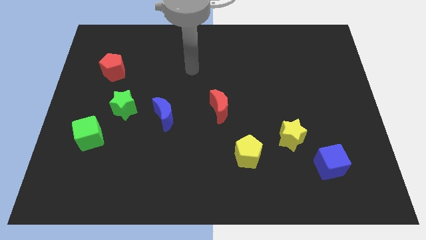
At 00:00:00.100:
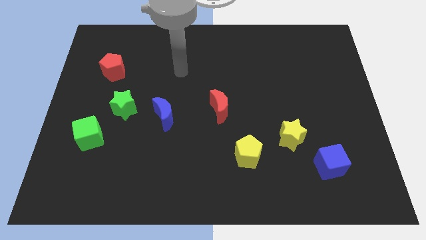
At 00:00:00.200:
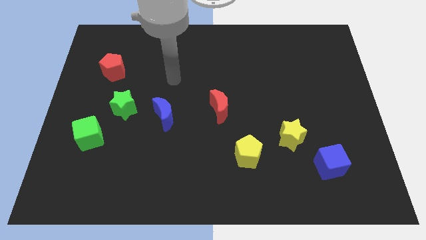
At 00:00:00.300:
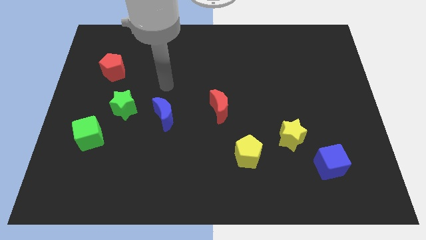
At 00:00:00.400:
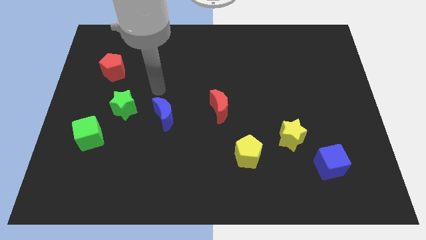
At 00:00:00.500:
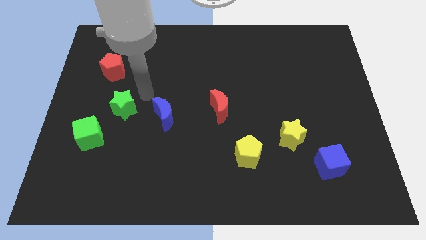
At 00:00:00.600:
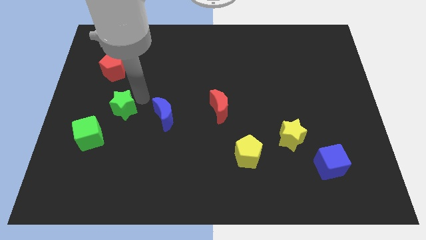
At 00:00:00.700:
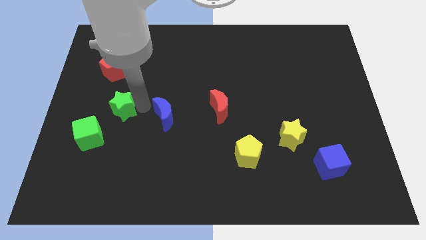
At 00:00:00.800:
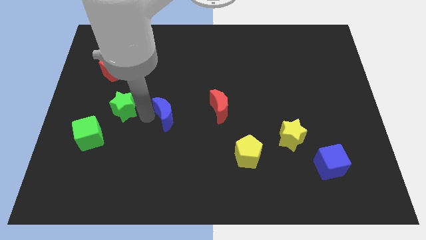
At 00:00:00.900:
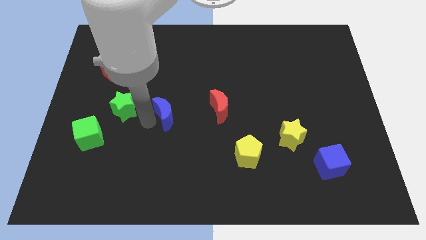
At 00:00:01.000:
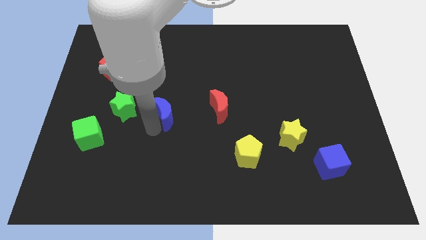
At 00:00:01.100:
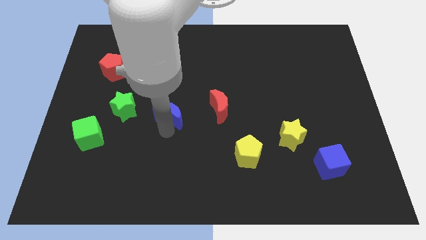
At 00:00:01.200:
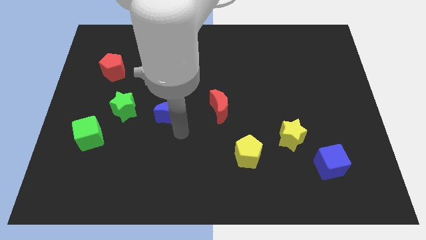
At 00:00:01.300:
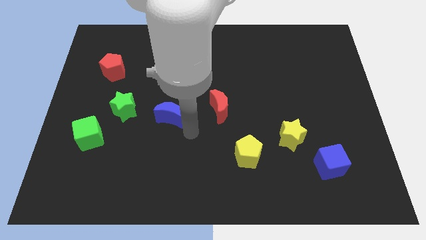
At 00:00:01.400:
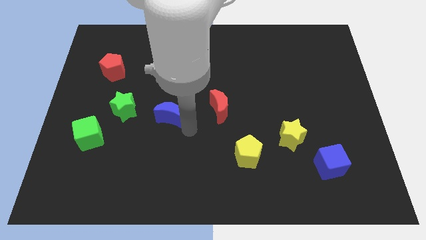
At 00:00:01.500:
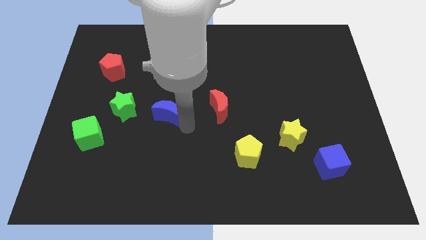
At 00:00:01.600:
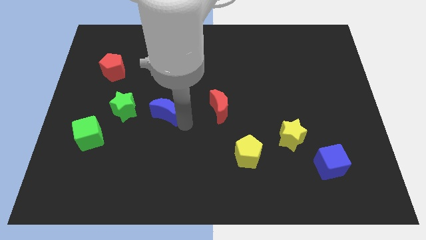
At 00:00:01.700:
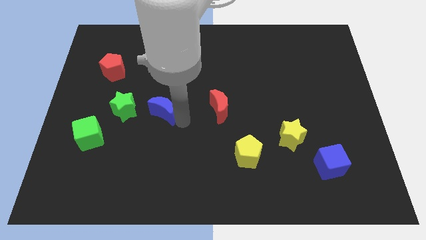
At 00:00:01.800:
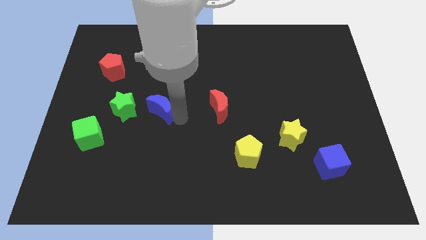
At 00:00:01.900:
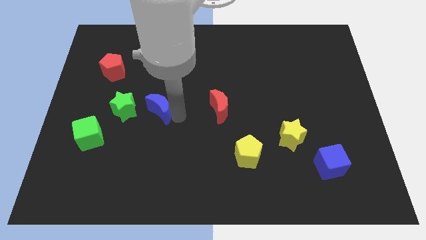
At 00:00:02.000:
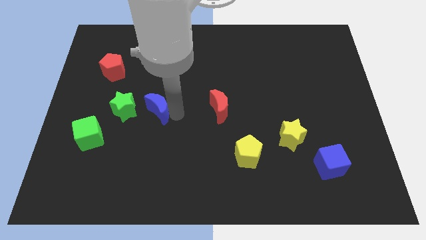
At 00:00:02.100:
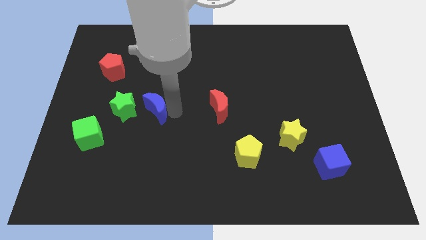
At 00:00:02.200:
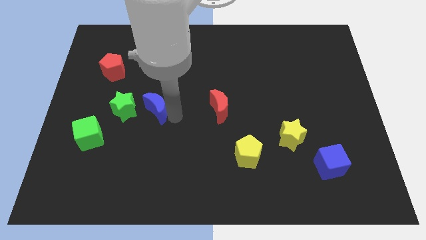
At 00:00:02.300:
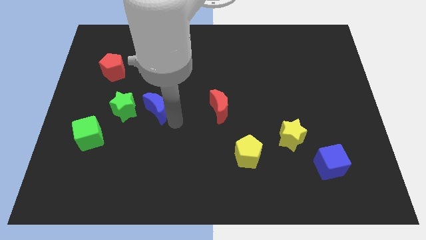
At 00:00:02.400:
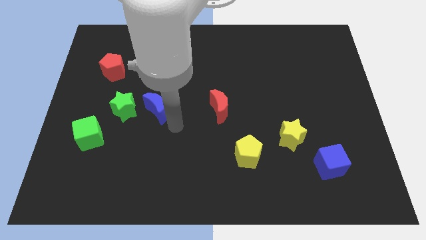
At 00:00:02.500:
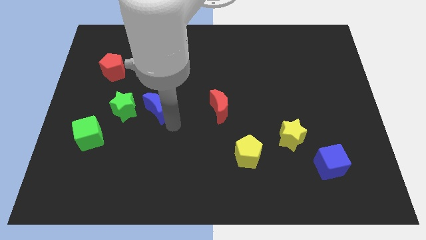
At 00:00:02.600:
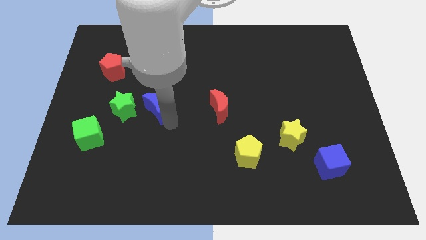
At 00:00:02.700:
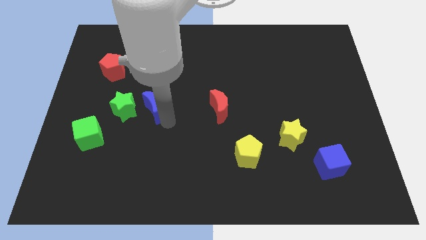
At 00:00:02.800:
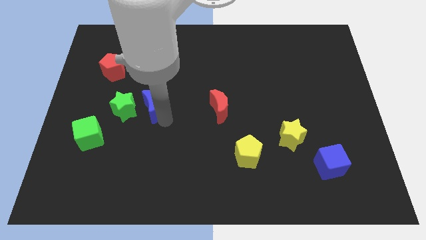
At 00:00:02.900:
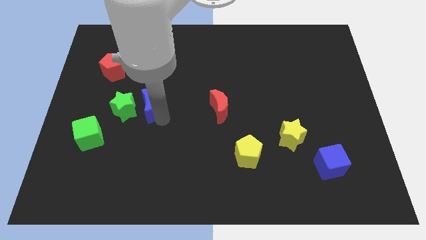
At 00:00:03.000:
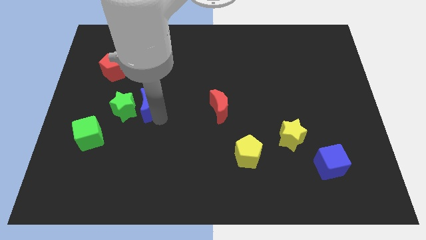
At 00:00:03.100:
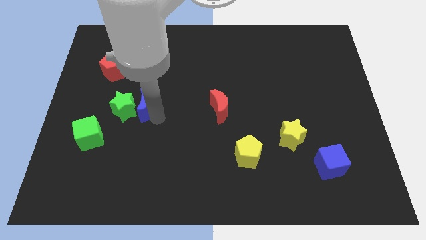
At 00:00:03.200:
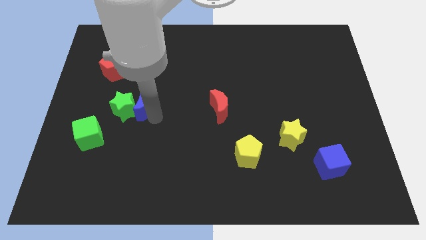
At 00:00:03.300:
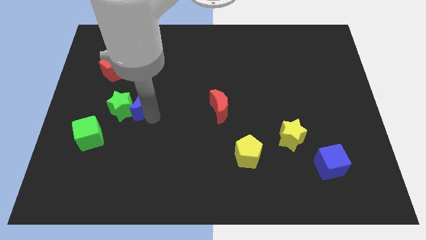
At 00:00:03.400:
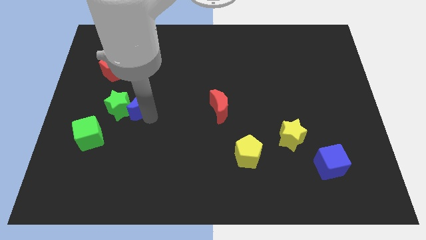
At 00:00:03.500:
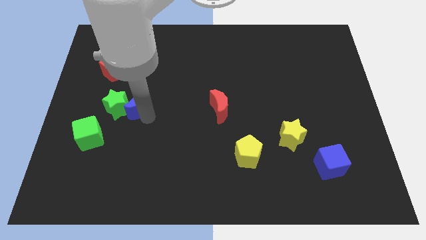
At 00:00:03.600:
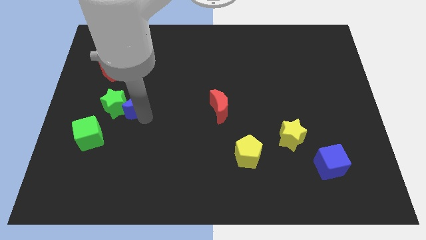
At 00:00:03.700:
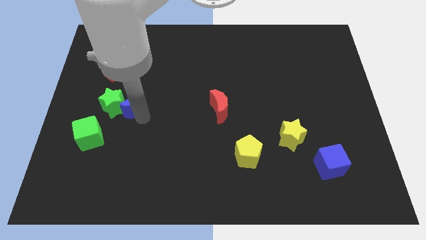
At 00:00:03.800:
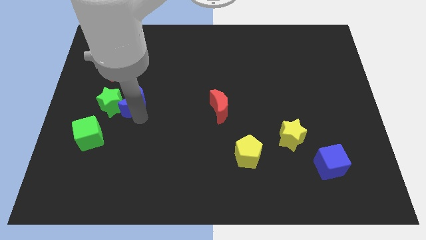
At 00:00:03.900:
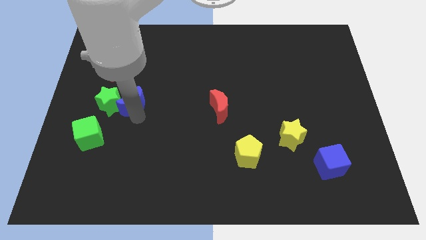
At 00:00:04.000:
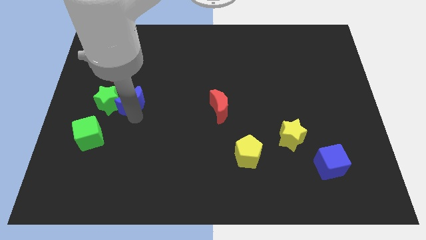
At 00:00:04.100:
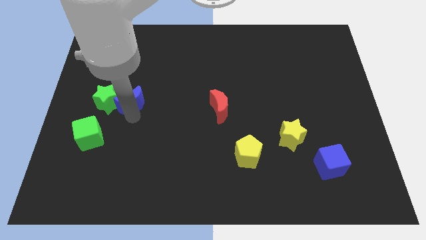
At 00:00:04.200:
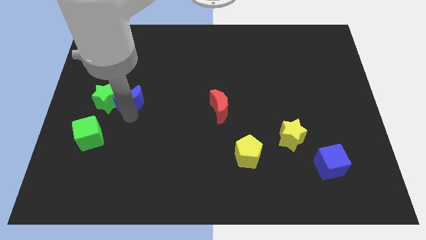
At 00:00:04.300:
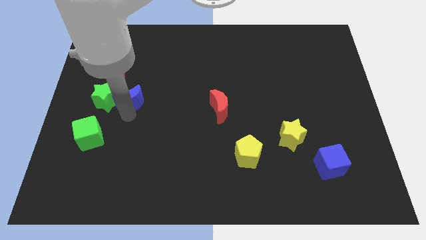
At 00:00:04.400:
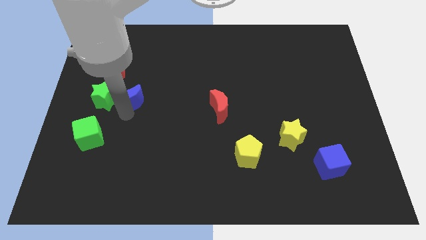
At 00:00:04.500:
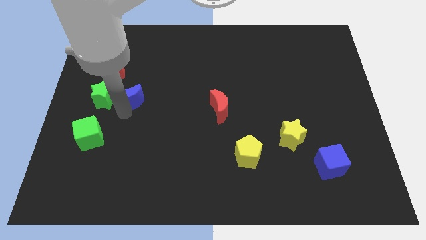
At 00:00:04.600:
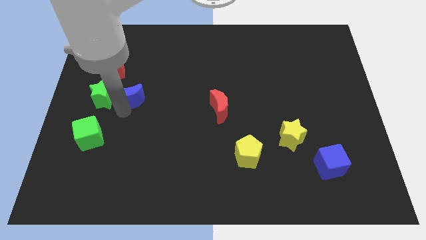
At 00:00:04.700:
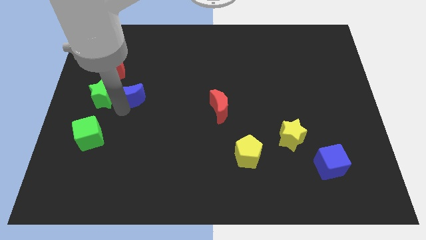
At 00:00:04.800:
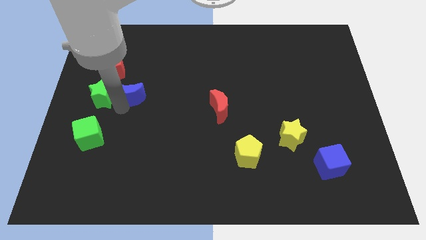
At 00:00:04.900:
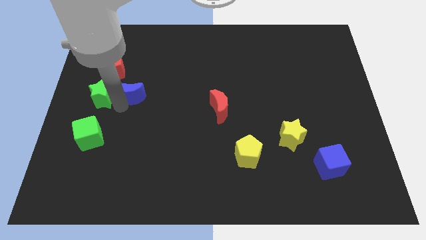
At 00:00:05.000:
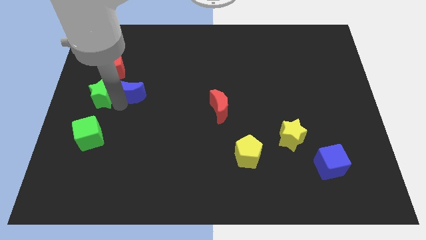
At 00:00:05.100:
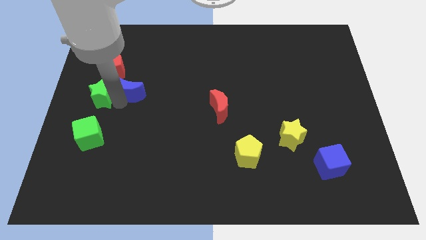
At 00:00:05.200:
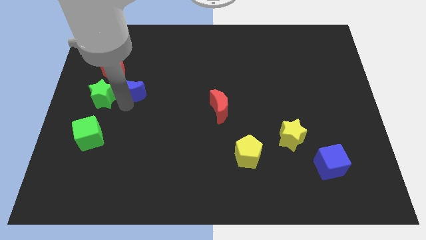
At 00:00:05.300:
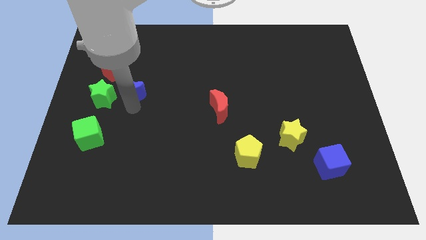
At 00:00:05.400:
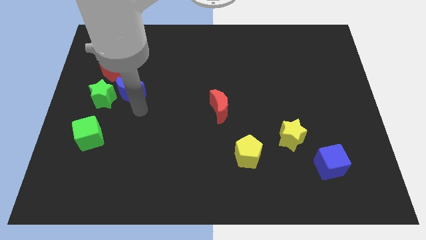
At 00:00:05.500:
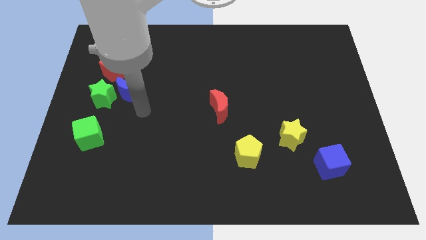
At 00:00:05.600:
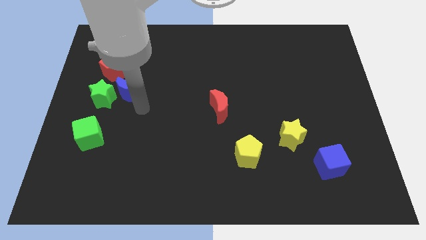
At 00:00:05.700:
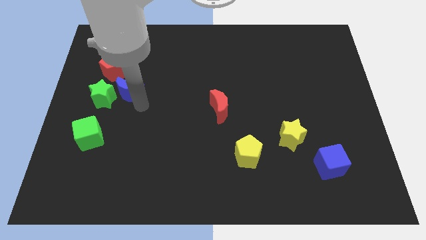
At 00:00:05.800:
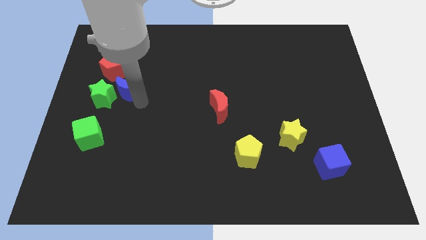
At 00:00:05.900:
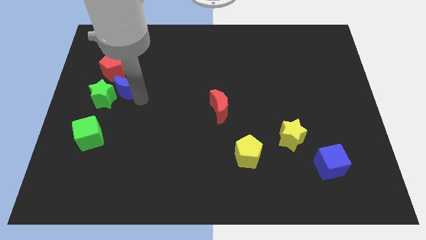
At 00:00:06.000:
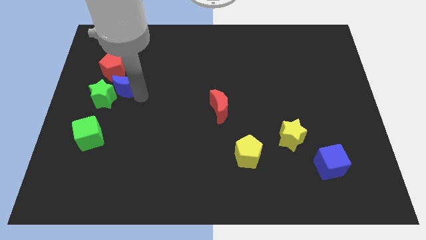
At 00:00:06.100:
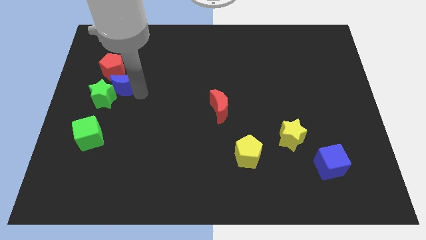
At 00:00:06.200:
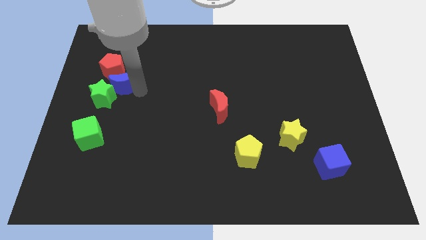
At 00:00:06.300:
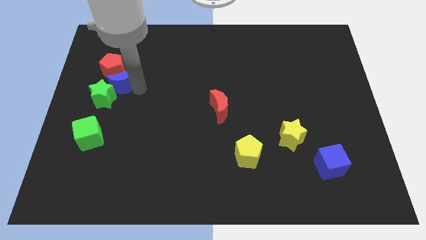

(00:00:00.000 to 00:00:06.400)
slide the blue moon next to the red pentagon

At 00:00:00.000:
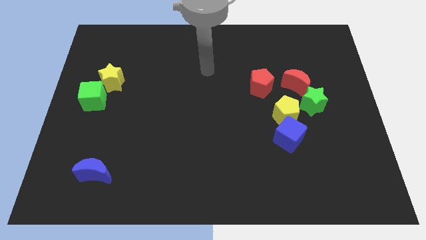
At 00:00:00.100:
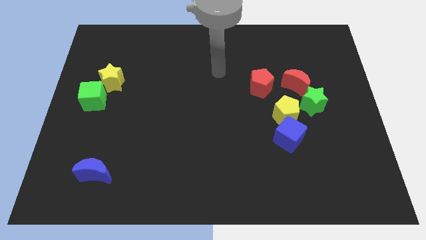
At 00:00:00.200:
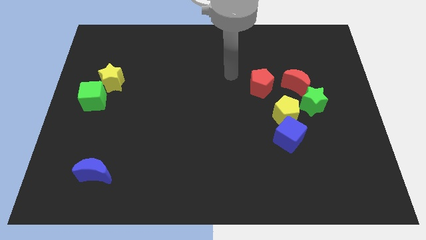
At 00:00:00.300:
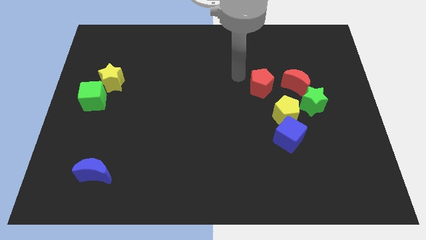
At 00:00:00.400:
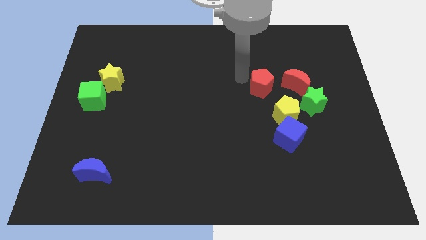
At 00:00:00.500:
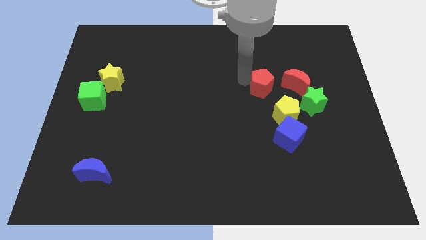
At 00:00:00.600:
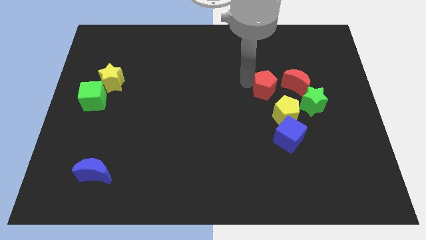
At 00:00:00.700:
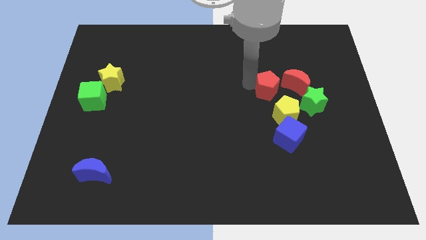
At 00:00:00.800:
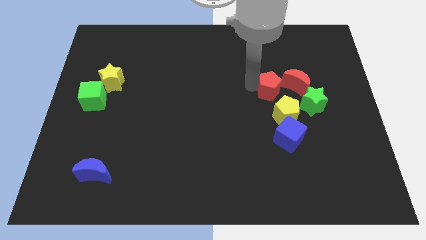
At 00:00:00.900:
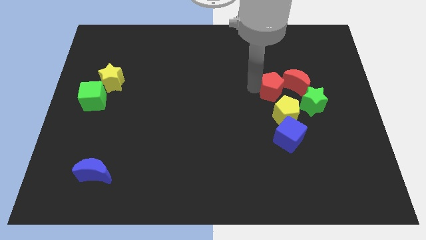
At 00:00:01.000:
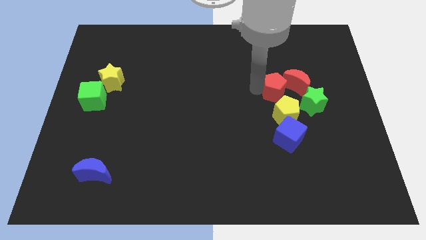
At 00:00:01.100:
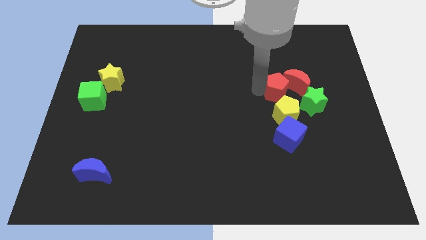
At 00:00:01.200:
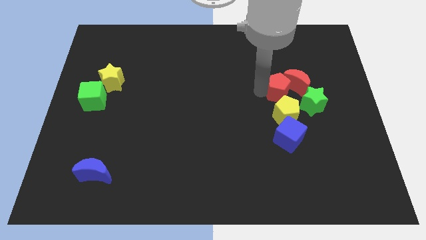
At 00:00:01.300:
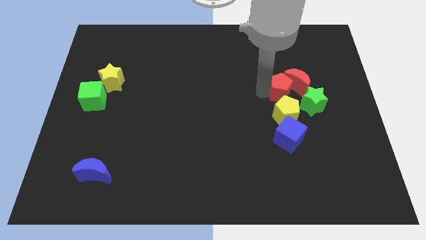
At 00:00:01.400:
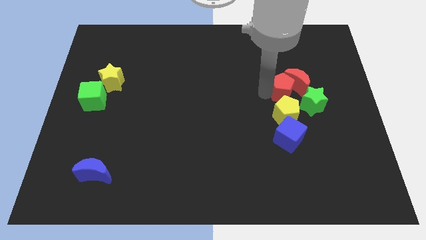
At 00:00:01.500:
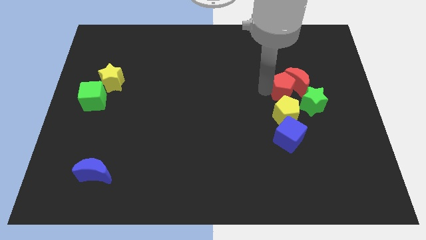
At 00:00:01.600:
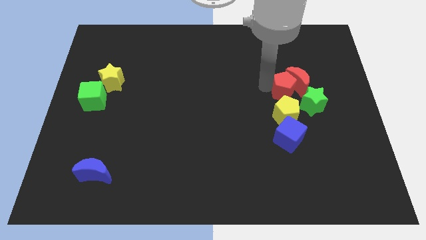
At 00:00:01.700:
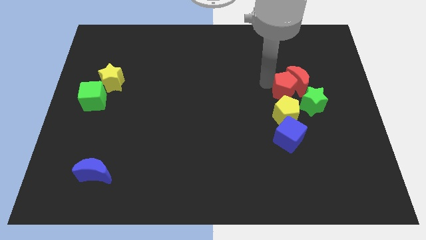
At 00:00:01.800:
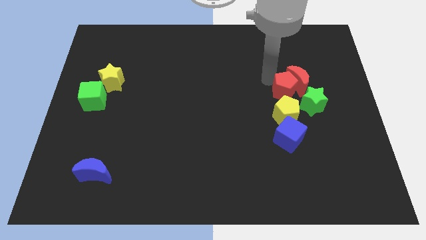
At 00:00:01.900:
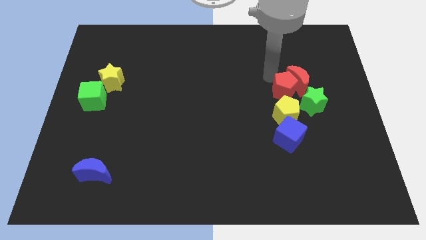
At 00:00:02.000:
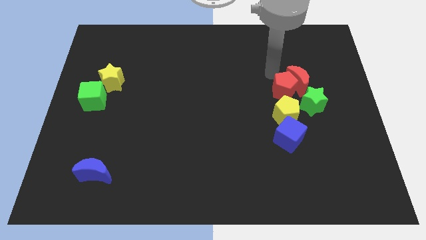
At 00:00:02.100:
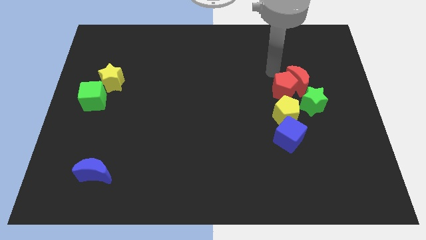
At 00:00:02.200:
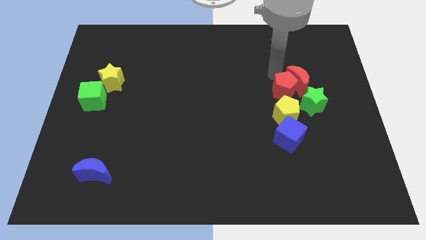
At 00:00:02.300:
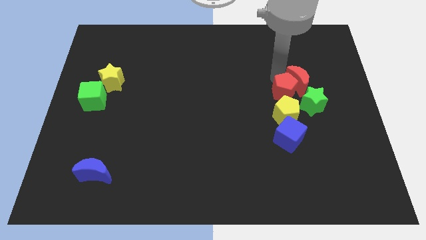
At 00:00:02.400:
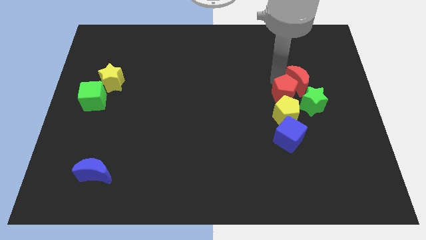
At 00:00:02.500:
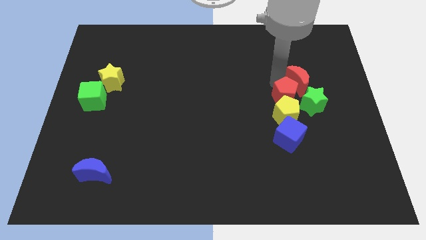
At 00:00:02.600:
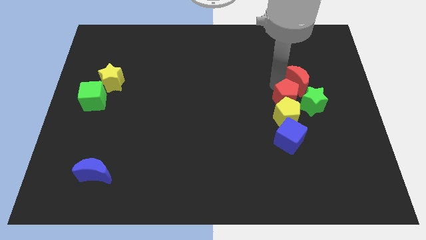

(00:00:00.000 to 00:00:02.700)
move the red pentagon next to the green star
